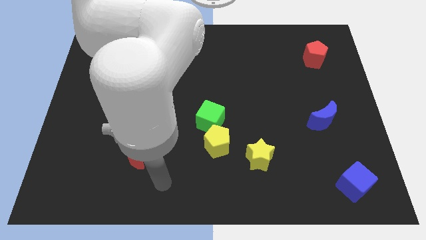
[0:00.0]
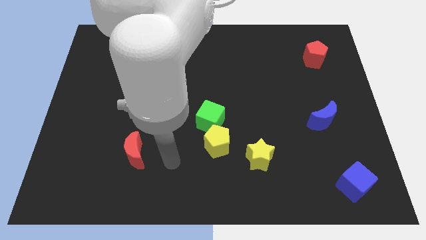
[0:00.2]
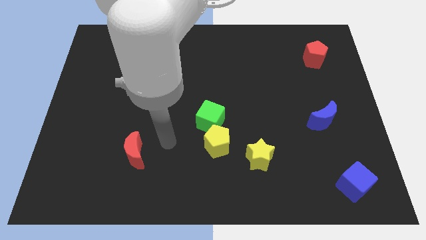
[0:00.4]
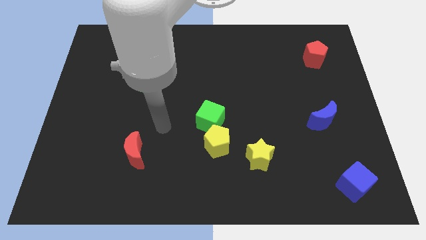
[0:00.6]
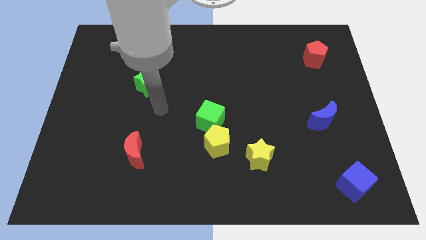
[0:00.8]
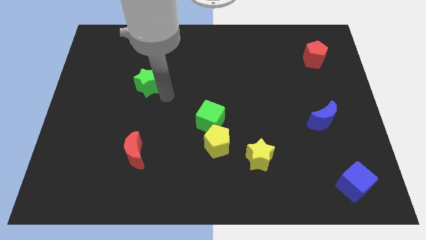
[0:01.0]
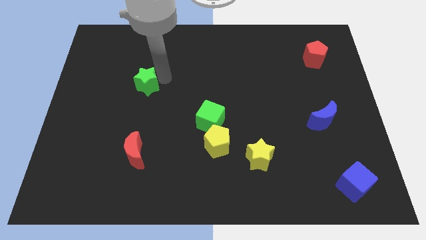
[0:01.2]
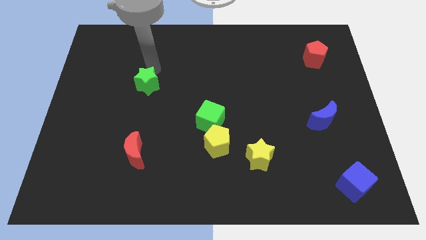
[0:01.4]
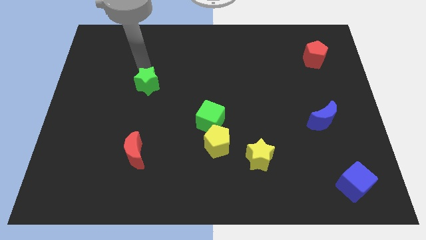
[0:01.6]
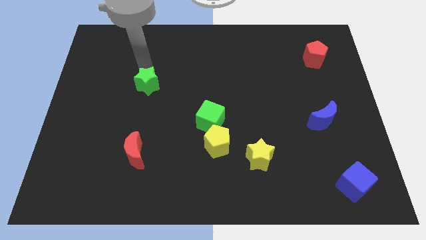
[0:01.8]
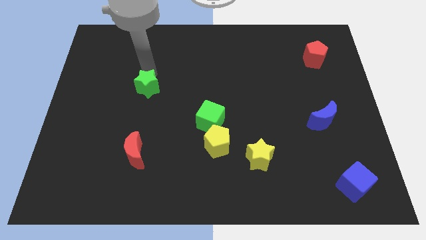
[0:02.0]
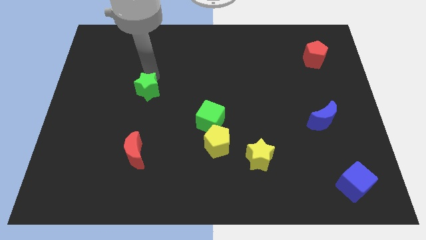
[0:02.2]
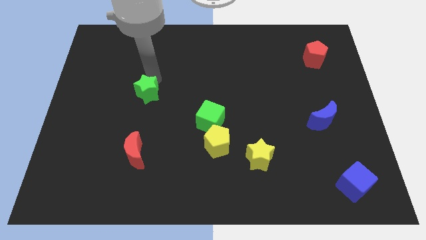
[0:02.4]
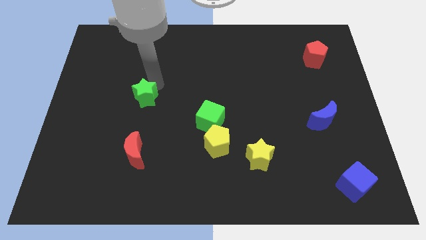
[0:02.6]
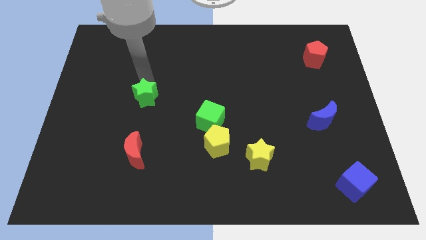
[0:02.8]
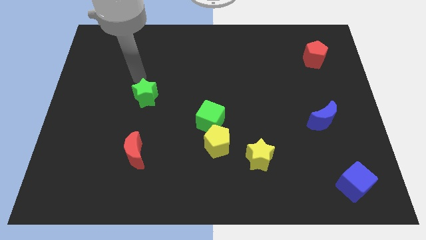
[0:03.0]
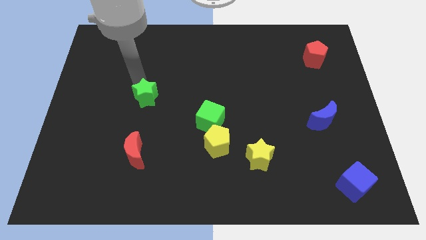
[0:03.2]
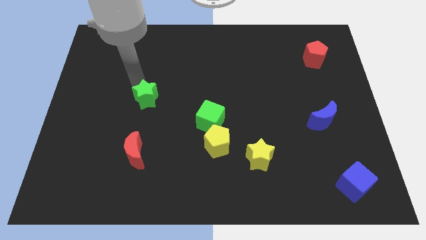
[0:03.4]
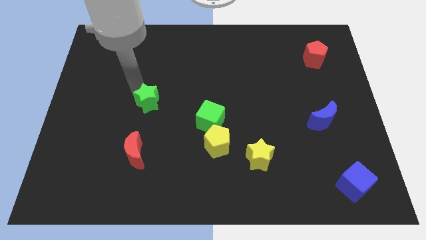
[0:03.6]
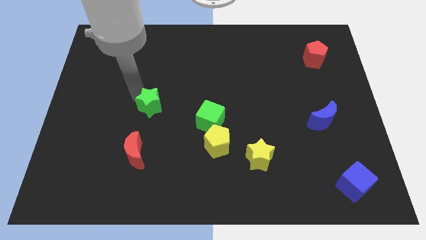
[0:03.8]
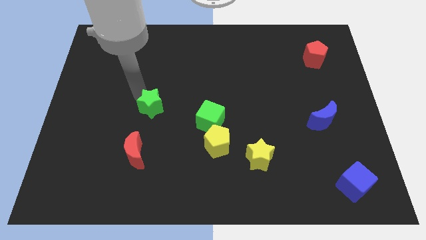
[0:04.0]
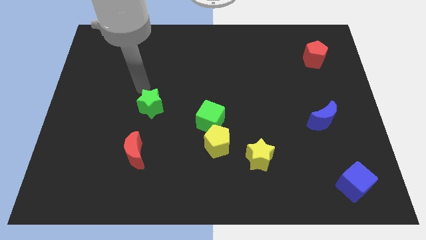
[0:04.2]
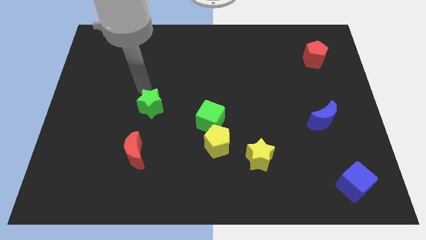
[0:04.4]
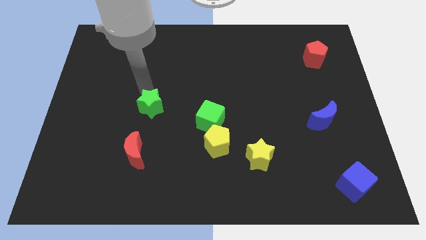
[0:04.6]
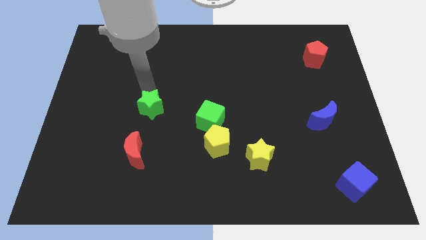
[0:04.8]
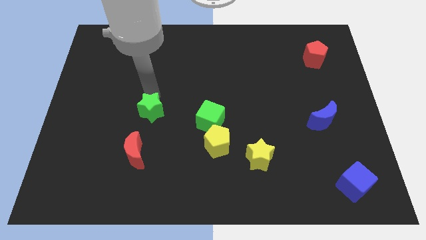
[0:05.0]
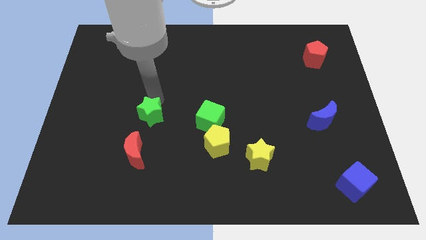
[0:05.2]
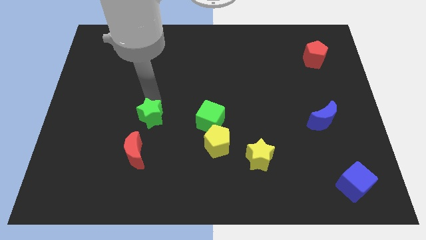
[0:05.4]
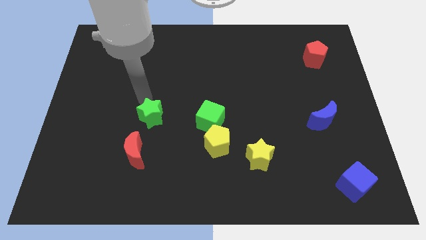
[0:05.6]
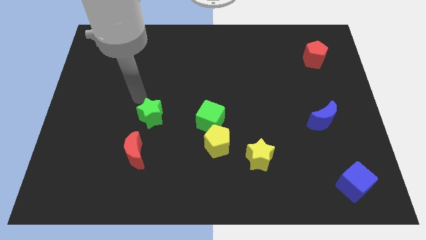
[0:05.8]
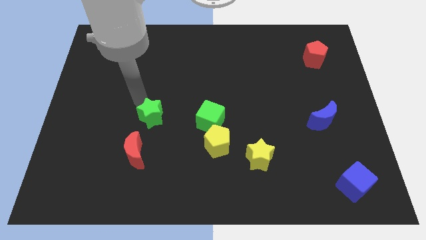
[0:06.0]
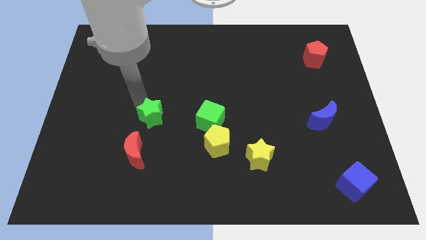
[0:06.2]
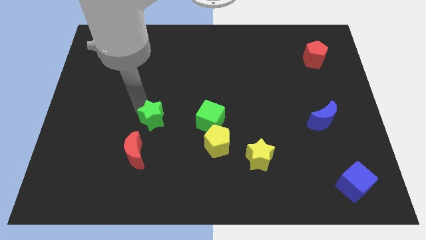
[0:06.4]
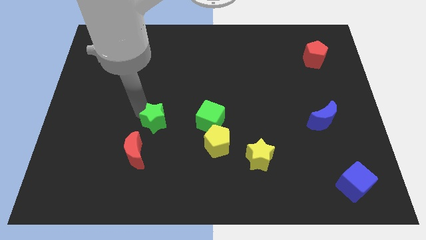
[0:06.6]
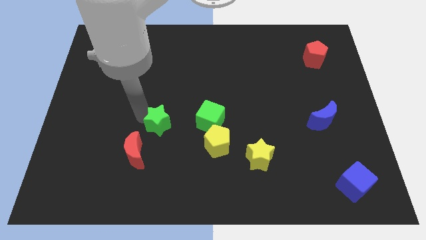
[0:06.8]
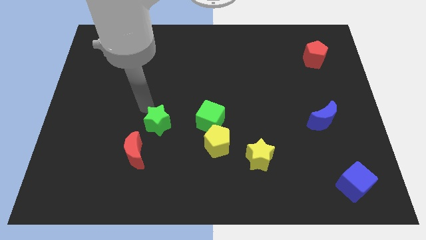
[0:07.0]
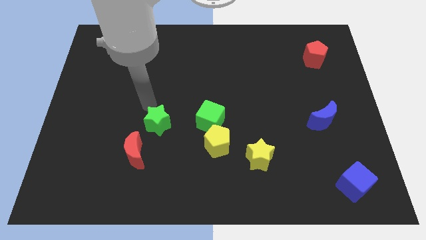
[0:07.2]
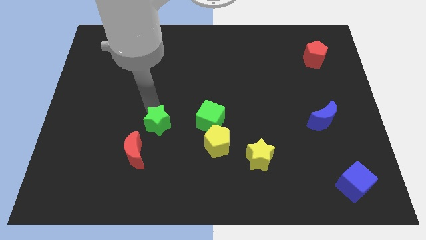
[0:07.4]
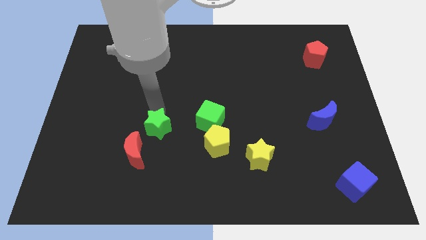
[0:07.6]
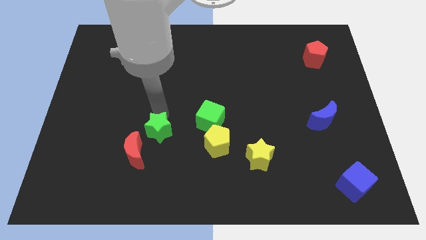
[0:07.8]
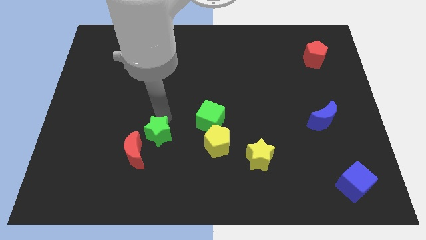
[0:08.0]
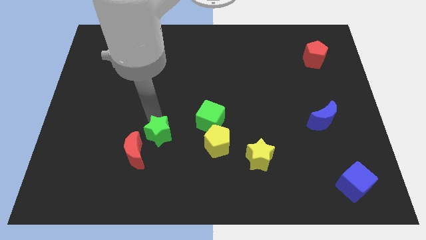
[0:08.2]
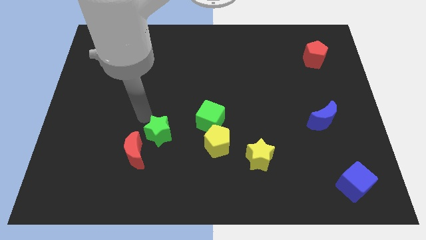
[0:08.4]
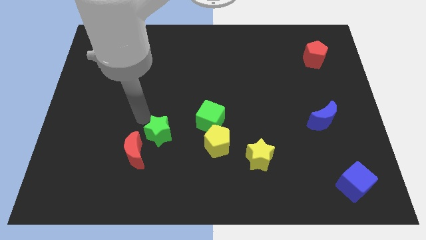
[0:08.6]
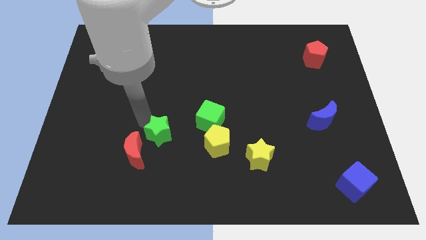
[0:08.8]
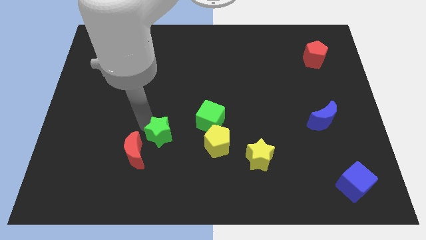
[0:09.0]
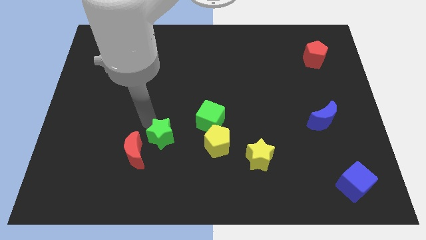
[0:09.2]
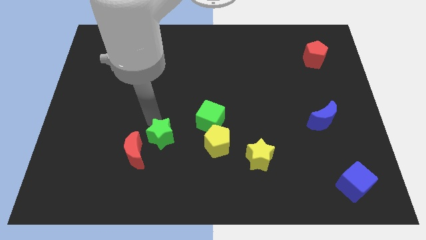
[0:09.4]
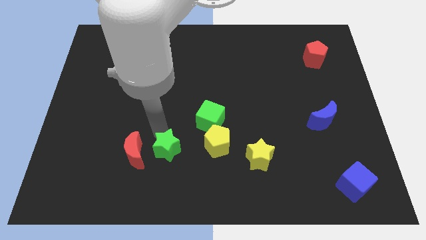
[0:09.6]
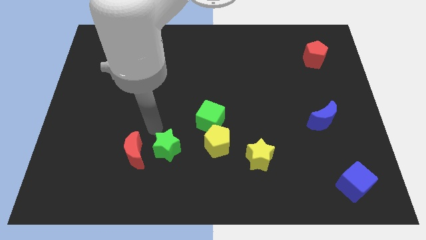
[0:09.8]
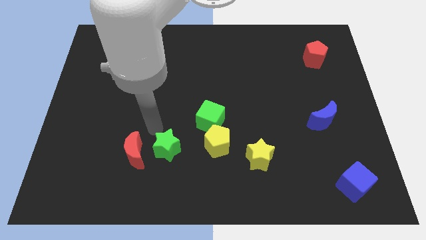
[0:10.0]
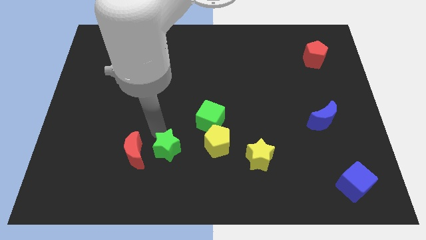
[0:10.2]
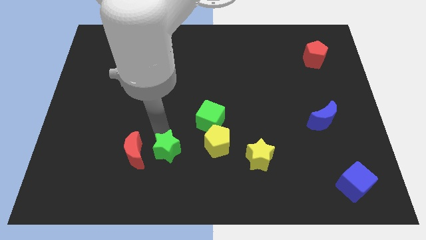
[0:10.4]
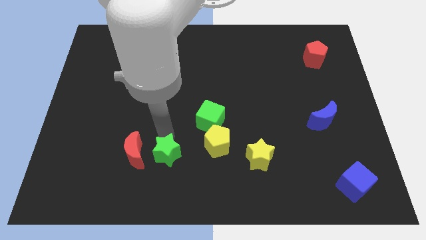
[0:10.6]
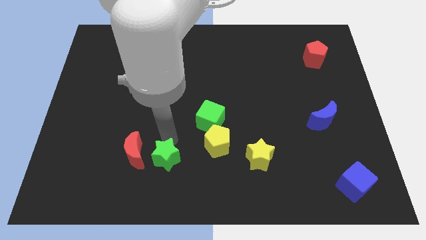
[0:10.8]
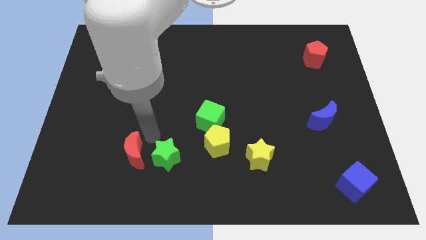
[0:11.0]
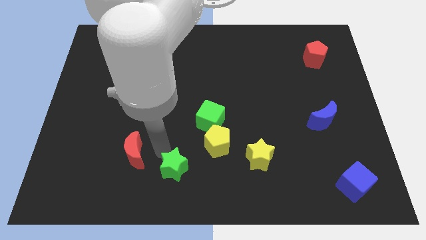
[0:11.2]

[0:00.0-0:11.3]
push the green star to the bottom side
